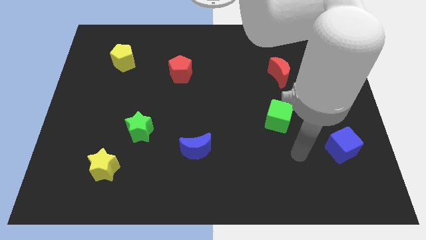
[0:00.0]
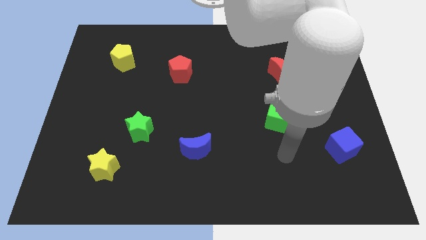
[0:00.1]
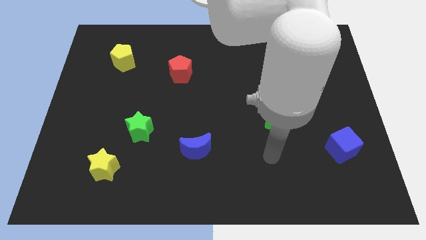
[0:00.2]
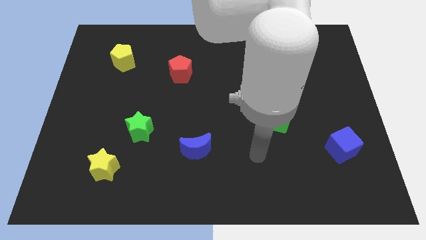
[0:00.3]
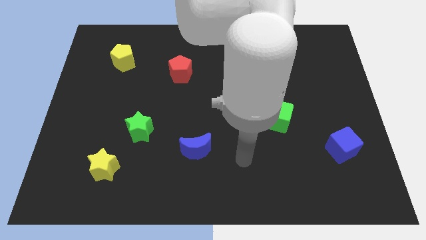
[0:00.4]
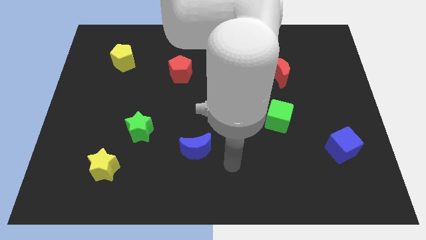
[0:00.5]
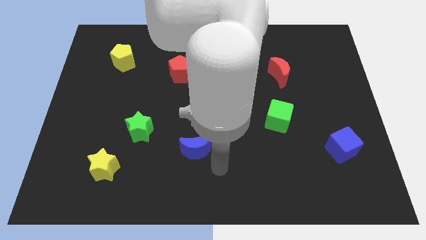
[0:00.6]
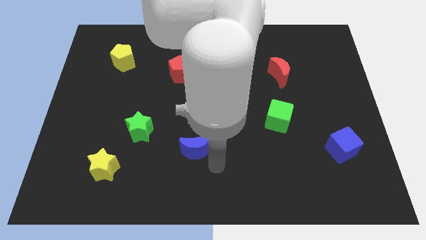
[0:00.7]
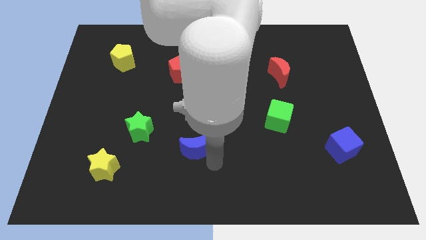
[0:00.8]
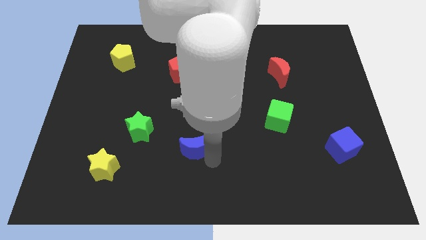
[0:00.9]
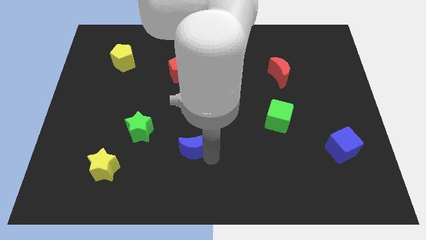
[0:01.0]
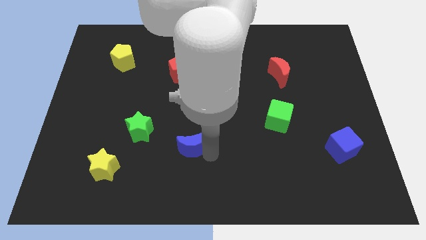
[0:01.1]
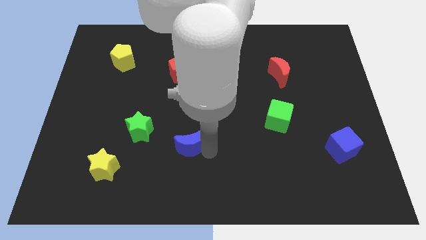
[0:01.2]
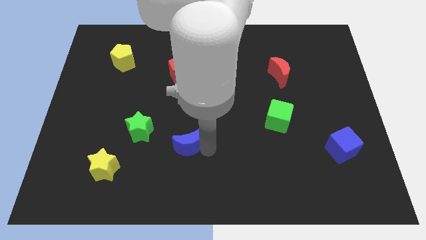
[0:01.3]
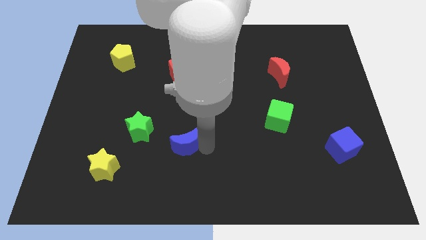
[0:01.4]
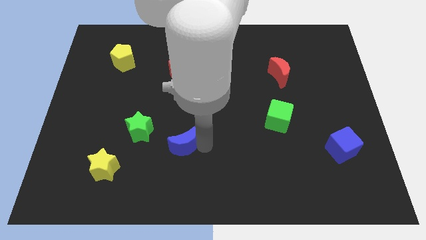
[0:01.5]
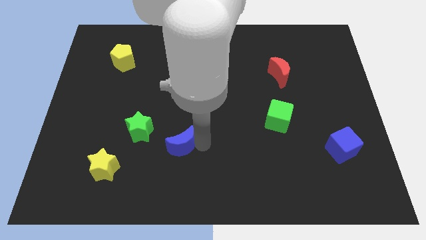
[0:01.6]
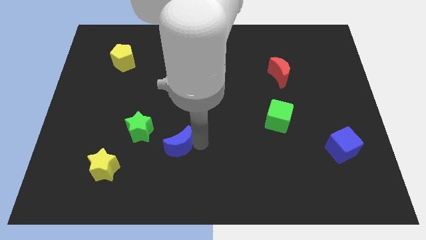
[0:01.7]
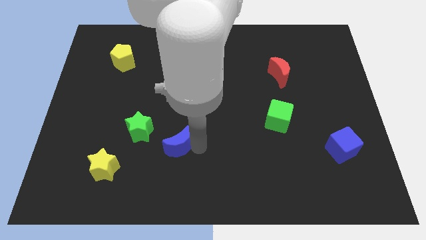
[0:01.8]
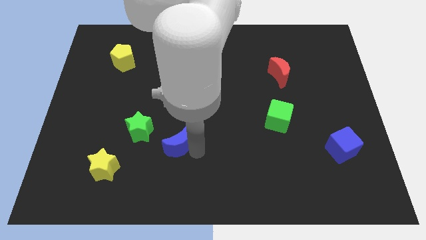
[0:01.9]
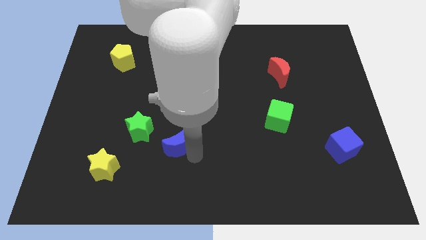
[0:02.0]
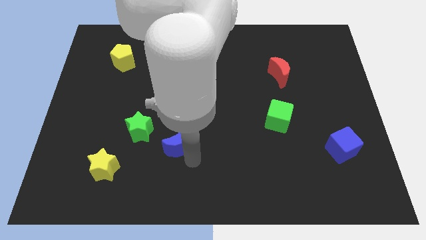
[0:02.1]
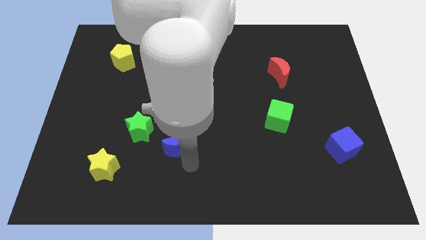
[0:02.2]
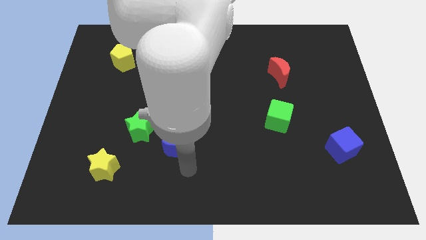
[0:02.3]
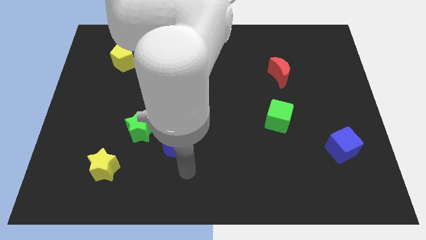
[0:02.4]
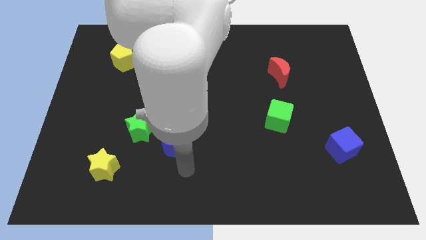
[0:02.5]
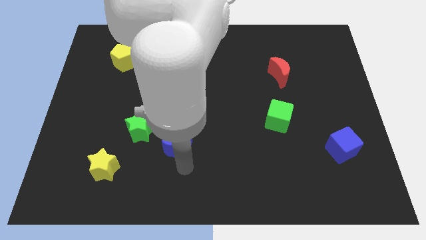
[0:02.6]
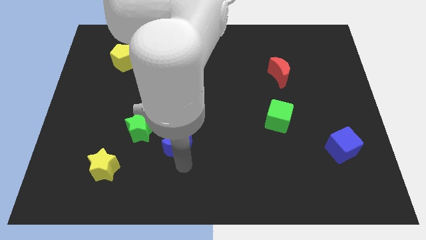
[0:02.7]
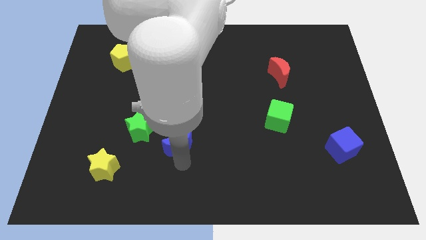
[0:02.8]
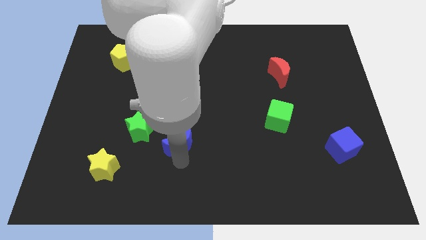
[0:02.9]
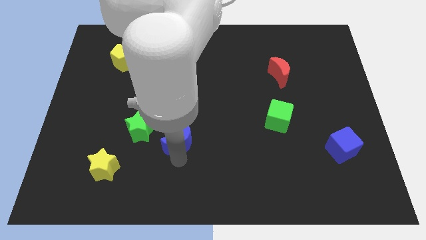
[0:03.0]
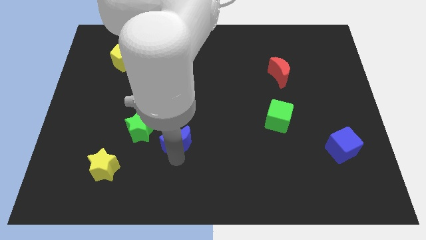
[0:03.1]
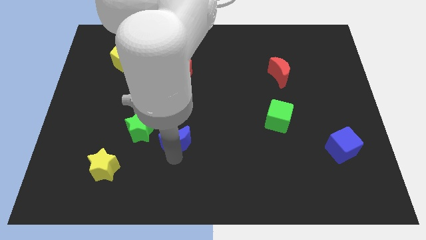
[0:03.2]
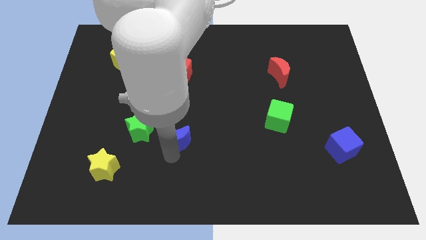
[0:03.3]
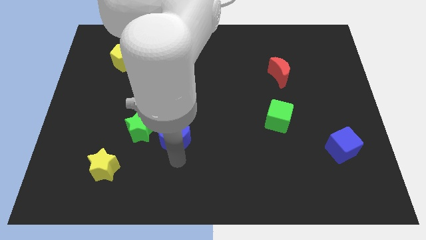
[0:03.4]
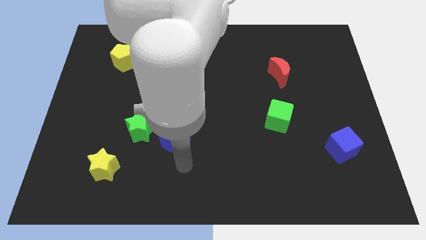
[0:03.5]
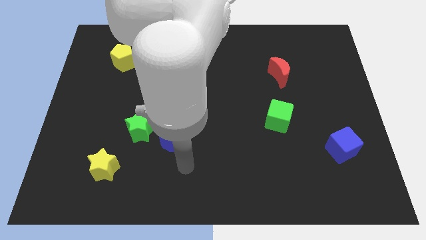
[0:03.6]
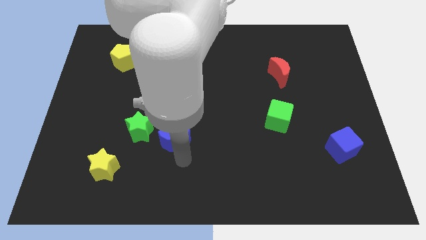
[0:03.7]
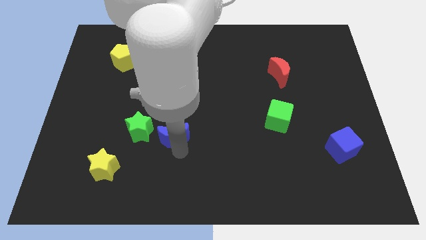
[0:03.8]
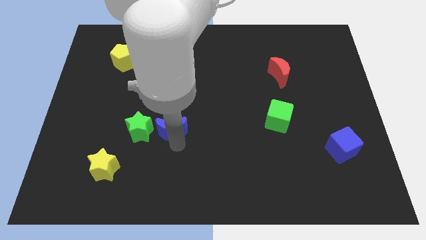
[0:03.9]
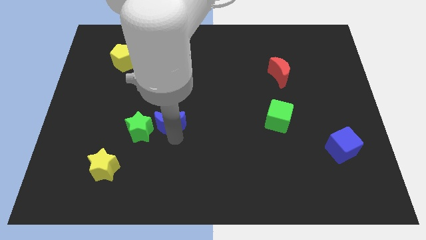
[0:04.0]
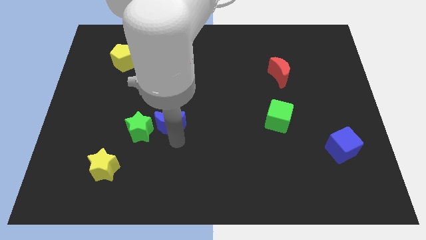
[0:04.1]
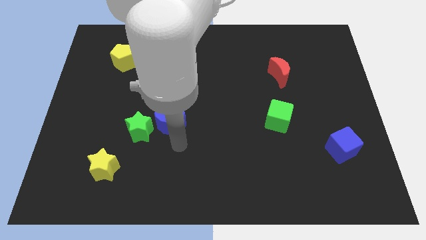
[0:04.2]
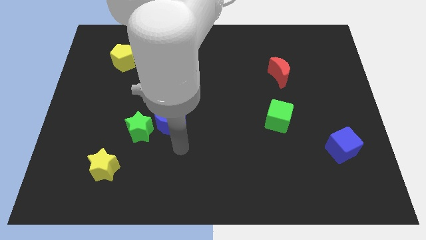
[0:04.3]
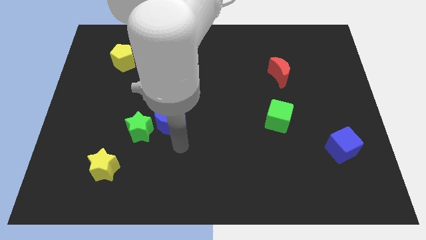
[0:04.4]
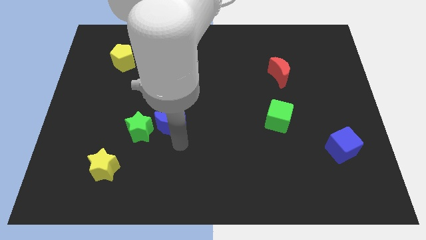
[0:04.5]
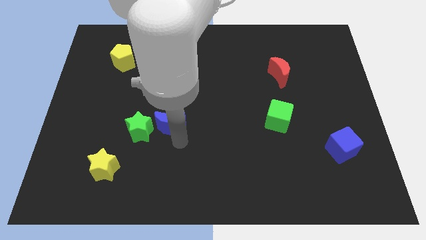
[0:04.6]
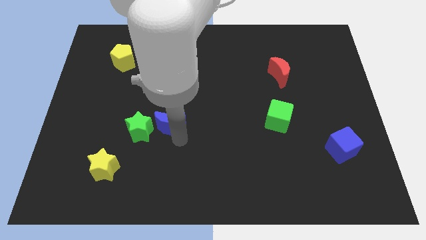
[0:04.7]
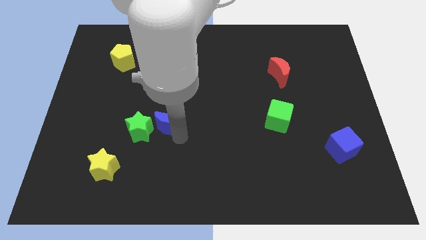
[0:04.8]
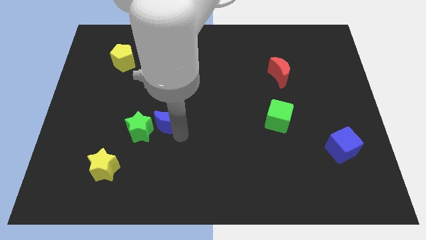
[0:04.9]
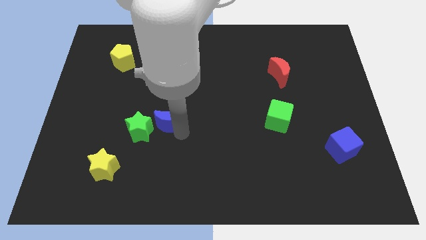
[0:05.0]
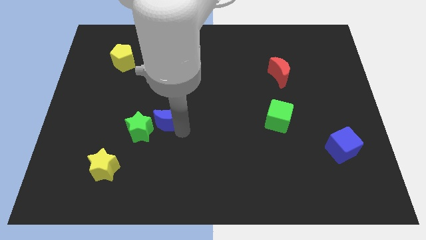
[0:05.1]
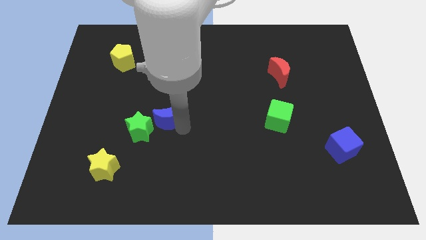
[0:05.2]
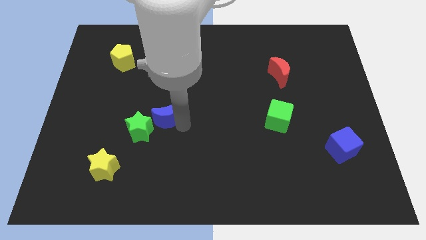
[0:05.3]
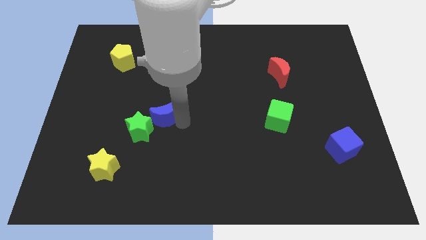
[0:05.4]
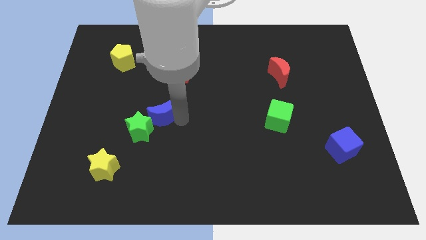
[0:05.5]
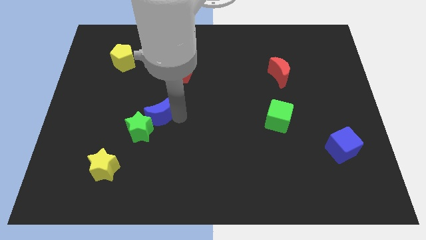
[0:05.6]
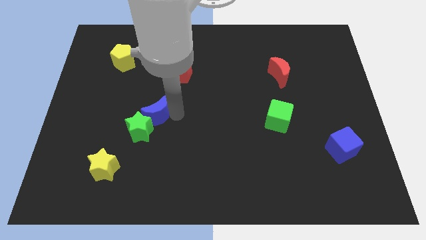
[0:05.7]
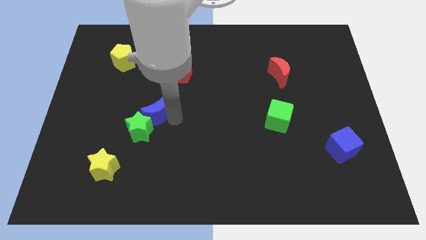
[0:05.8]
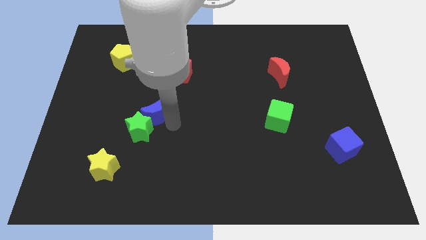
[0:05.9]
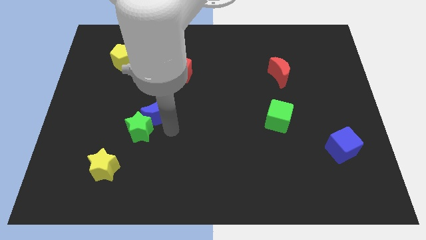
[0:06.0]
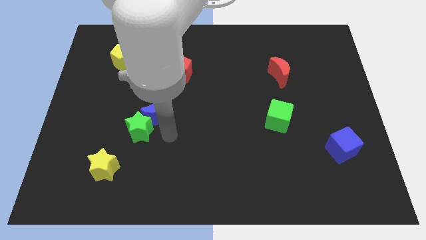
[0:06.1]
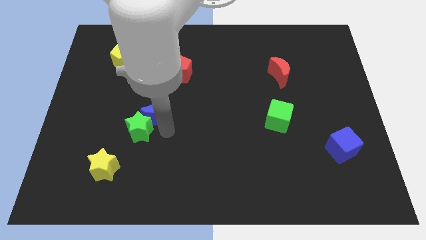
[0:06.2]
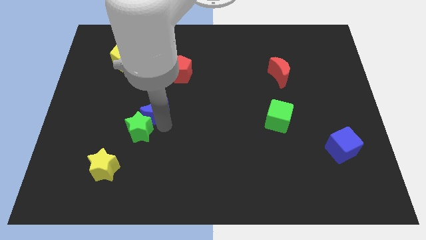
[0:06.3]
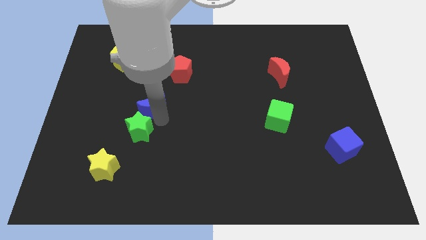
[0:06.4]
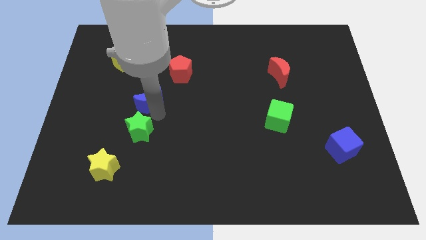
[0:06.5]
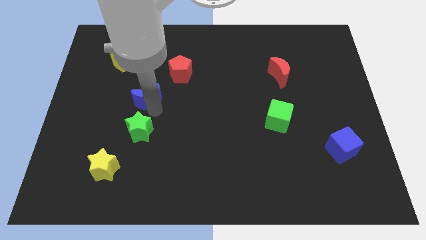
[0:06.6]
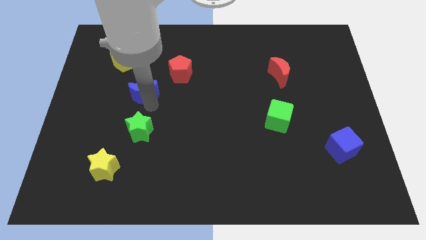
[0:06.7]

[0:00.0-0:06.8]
push the blue moon diagonally upwards and left

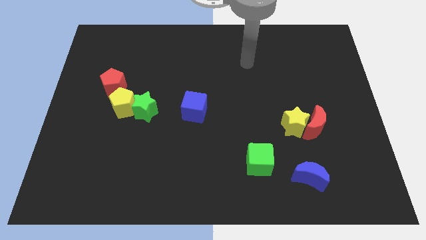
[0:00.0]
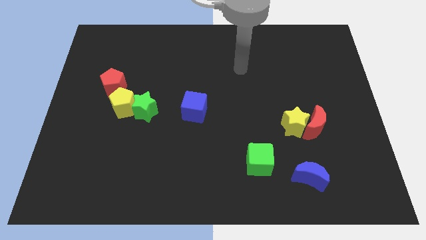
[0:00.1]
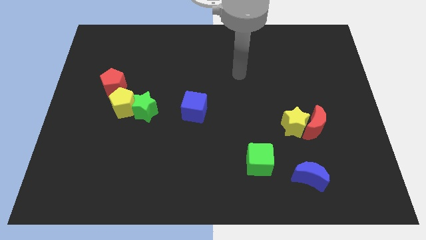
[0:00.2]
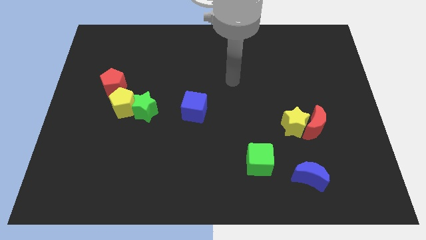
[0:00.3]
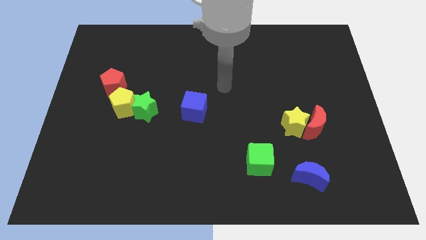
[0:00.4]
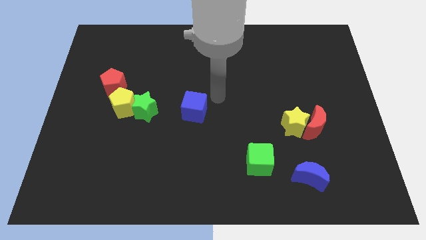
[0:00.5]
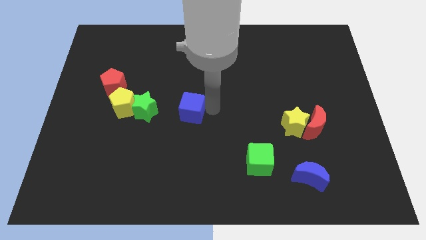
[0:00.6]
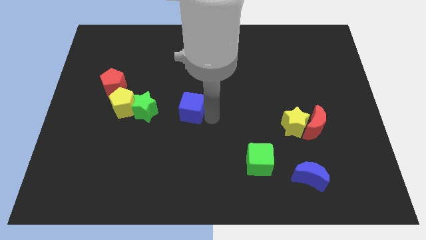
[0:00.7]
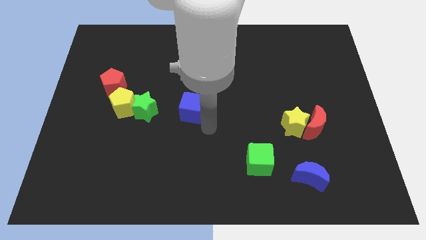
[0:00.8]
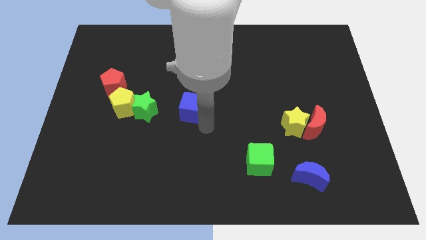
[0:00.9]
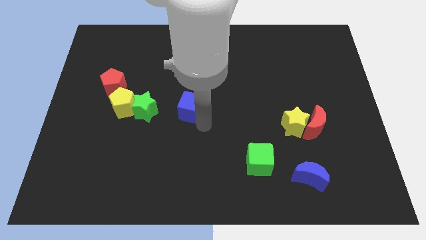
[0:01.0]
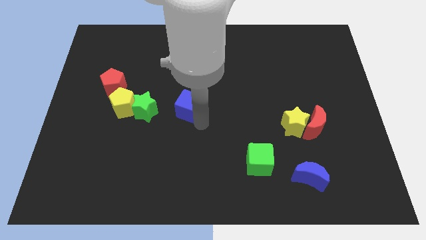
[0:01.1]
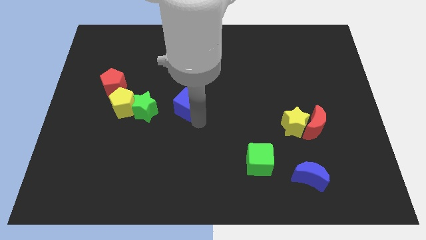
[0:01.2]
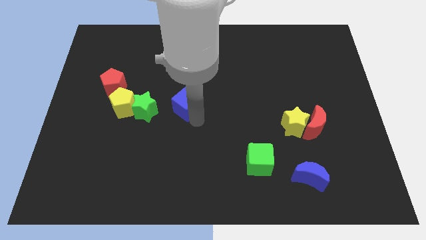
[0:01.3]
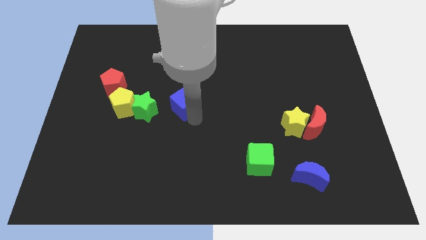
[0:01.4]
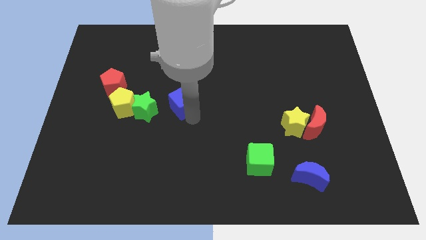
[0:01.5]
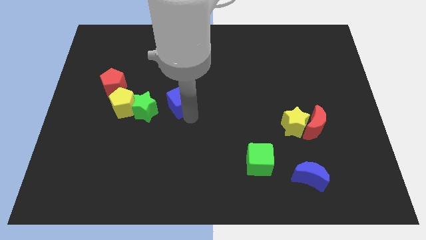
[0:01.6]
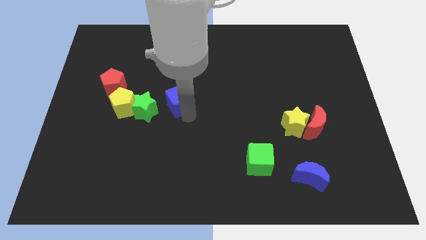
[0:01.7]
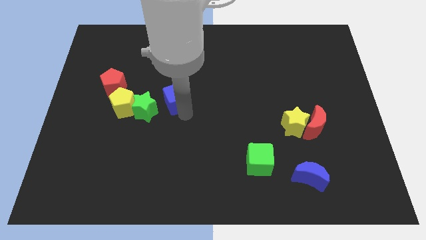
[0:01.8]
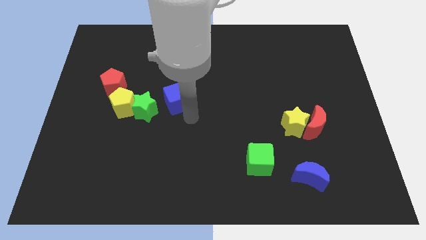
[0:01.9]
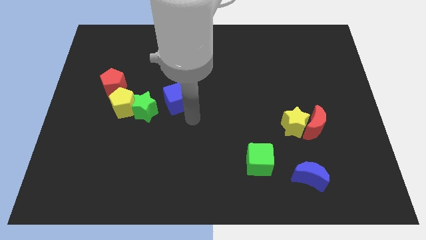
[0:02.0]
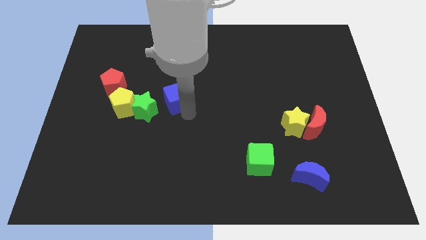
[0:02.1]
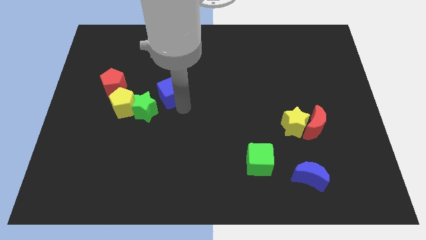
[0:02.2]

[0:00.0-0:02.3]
push the blue cube a little upwards and left
